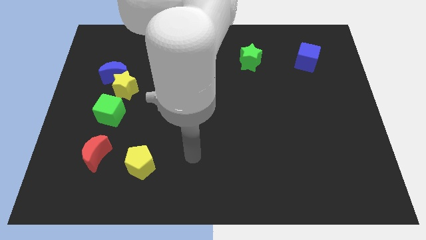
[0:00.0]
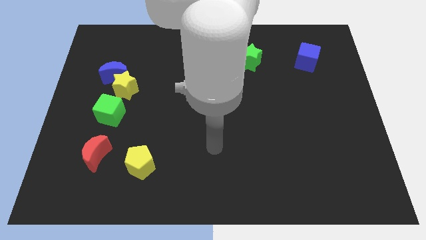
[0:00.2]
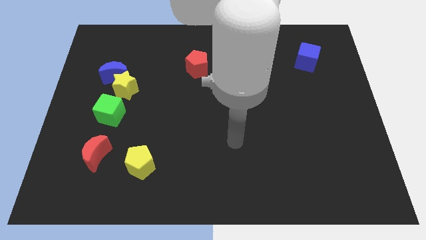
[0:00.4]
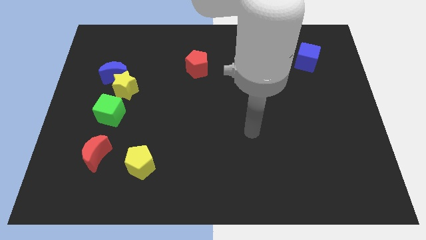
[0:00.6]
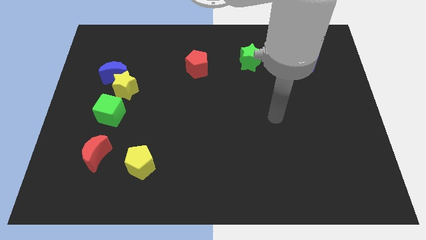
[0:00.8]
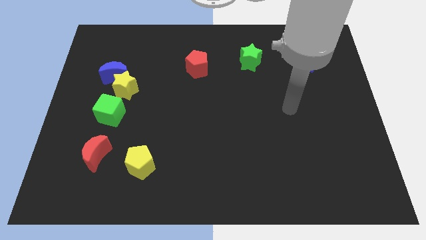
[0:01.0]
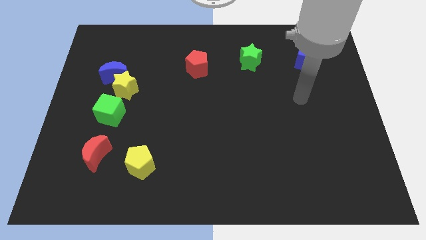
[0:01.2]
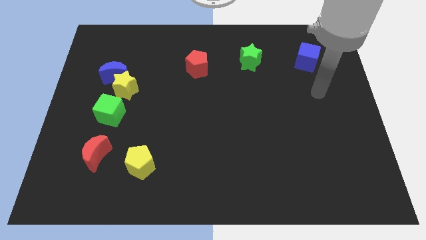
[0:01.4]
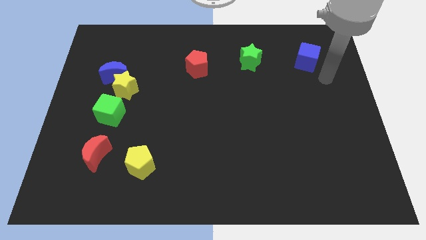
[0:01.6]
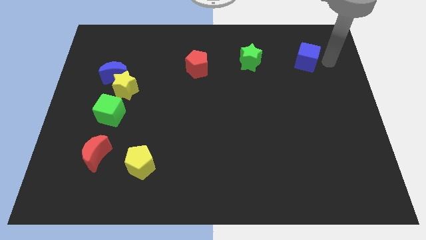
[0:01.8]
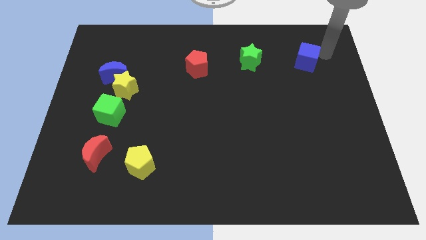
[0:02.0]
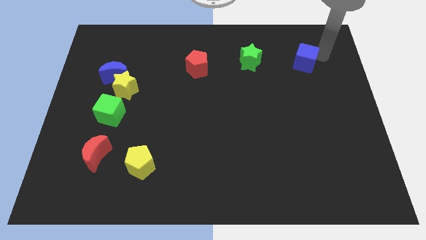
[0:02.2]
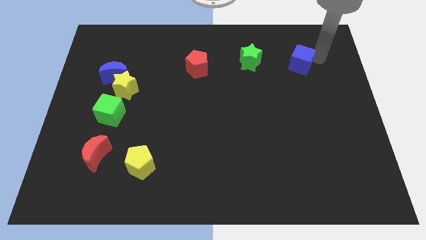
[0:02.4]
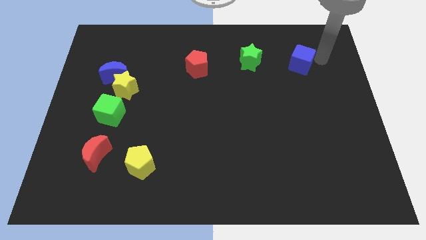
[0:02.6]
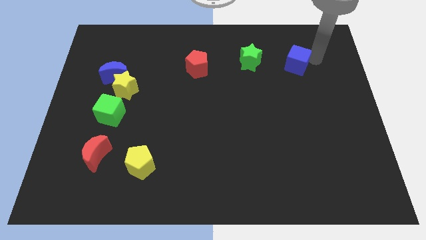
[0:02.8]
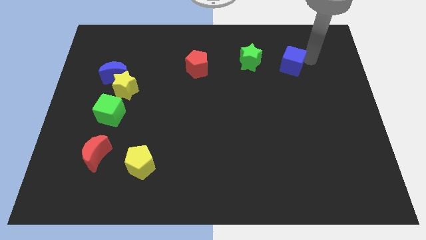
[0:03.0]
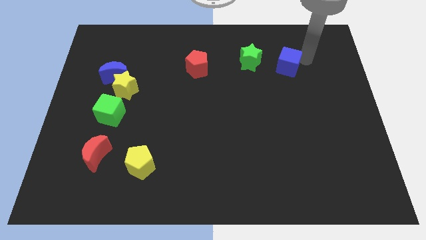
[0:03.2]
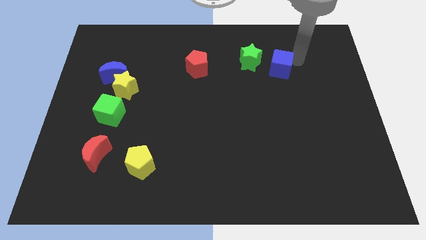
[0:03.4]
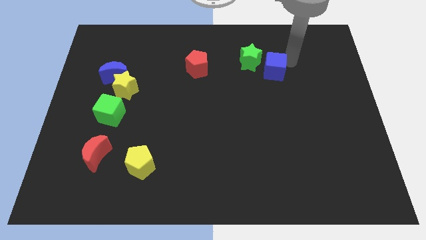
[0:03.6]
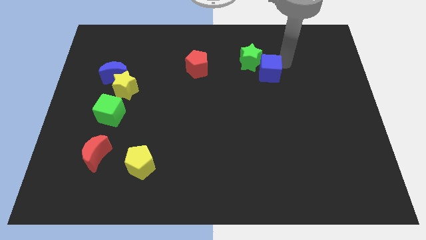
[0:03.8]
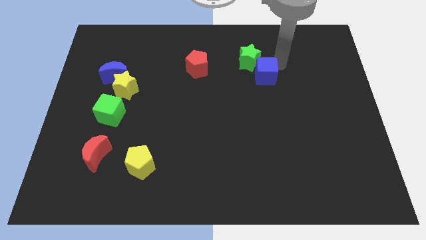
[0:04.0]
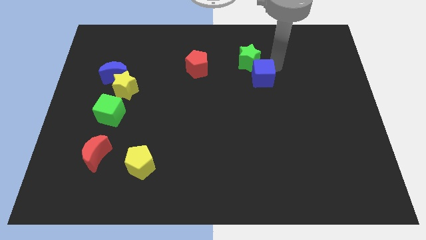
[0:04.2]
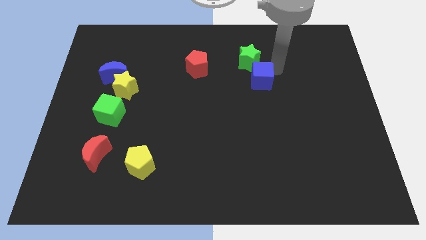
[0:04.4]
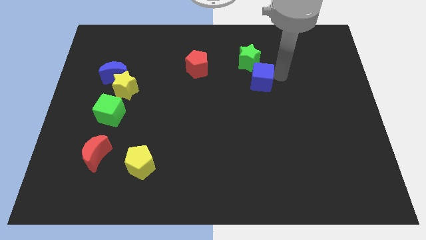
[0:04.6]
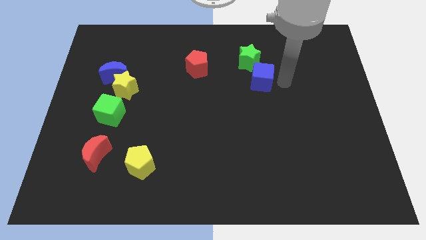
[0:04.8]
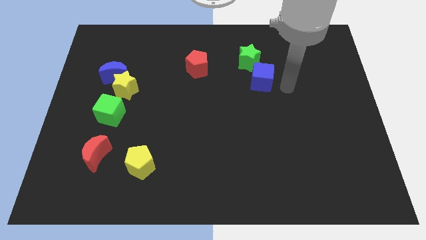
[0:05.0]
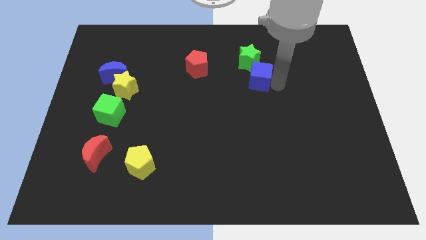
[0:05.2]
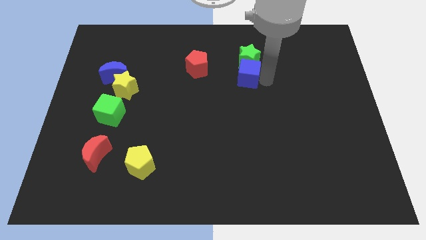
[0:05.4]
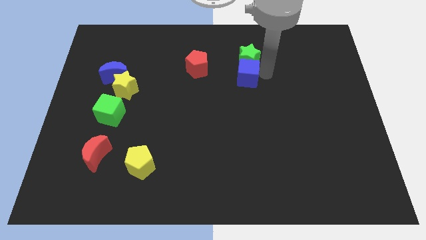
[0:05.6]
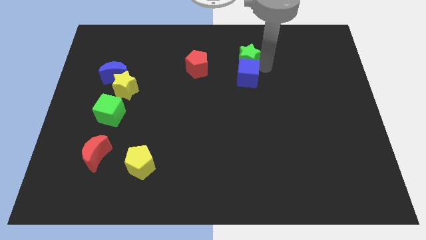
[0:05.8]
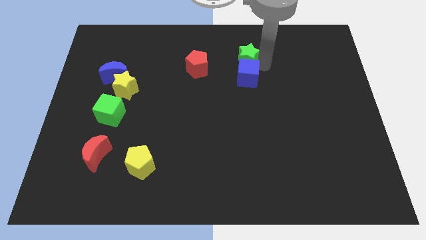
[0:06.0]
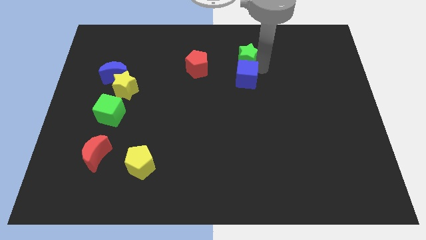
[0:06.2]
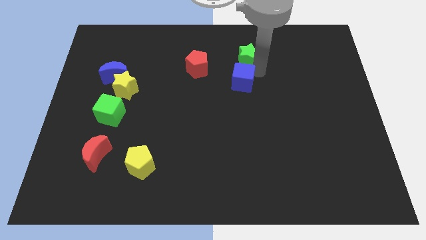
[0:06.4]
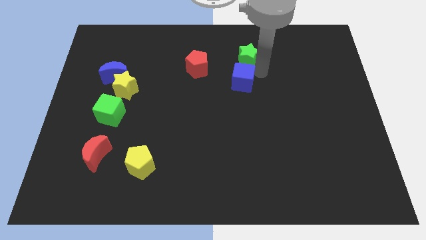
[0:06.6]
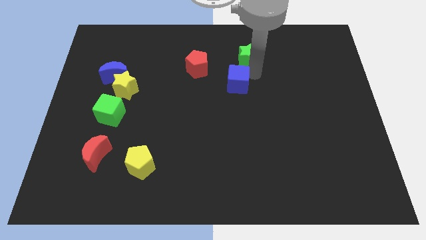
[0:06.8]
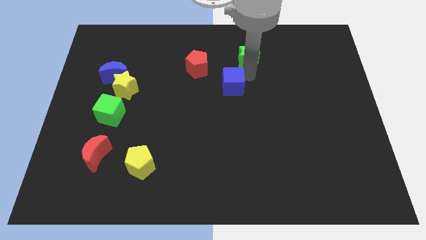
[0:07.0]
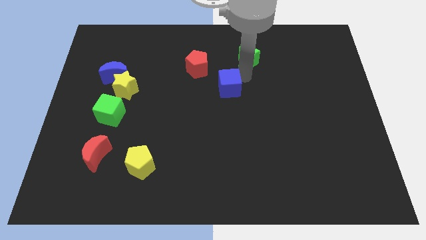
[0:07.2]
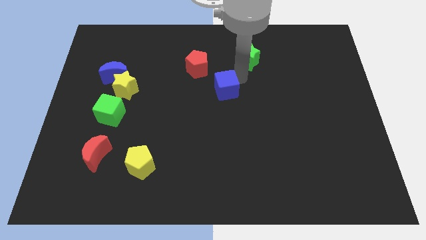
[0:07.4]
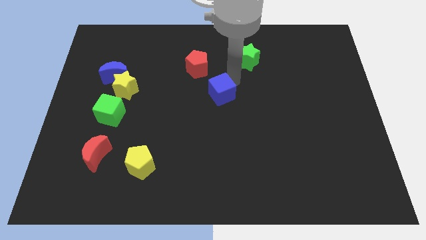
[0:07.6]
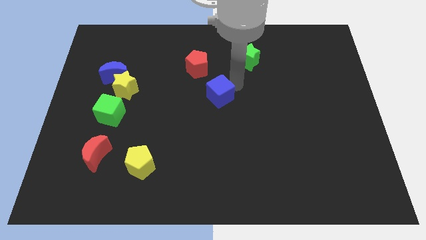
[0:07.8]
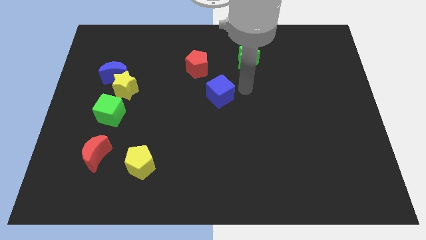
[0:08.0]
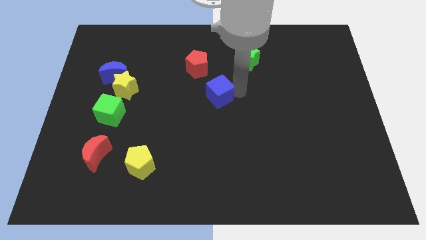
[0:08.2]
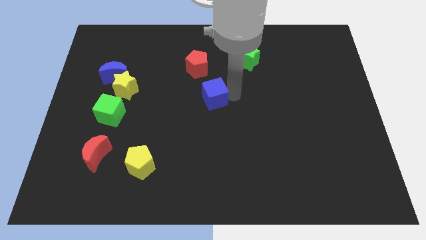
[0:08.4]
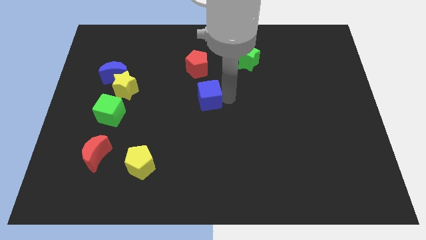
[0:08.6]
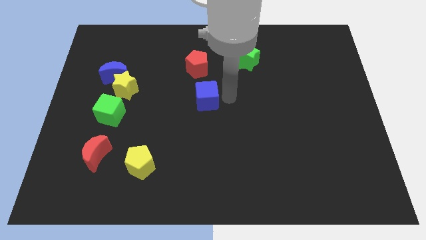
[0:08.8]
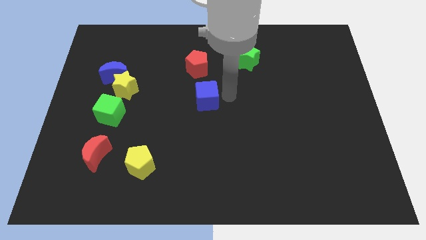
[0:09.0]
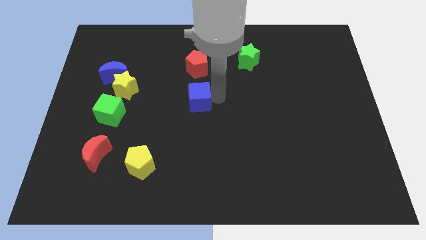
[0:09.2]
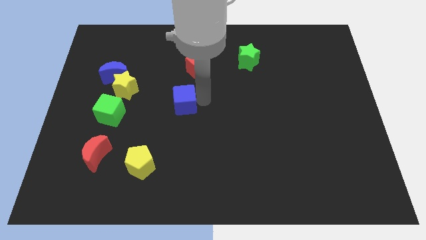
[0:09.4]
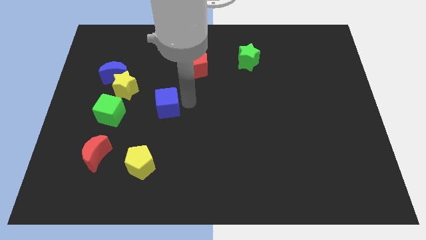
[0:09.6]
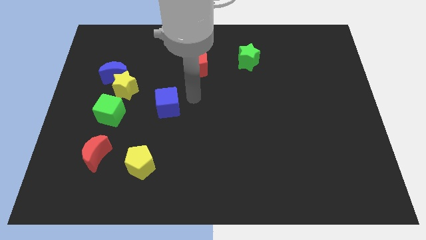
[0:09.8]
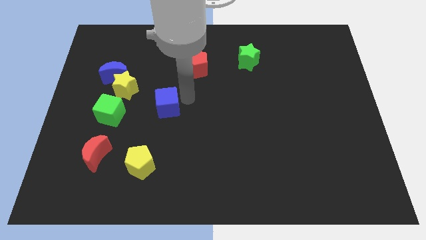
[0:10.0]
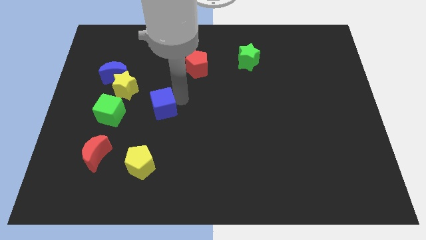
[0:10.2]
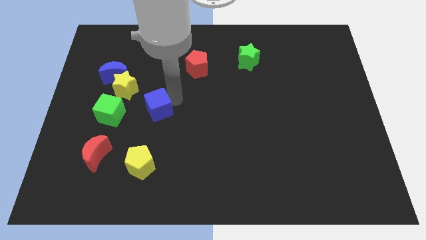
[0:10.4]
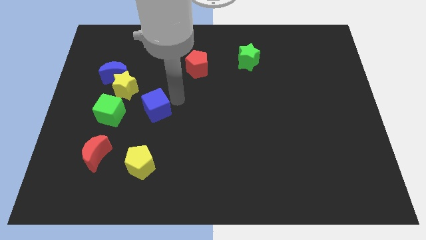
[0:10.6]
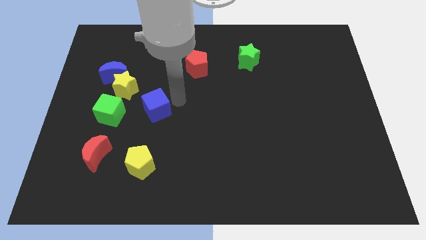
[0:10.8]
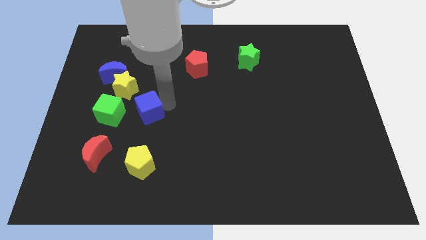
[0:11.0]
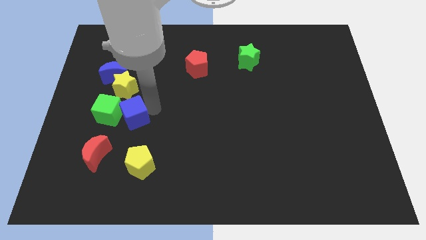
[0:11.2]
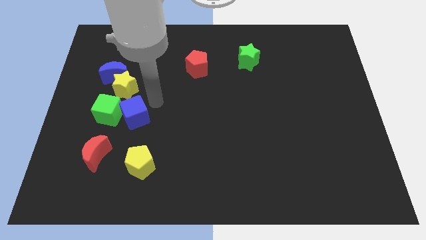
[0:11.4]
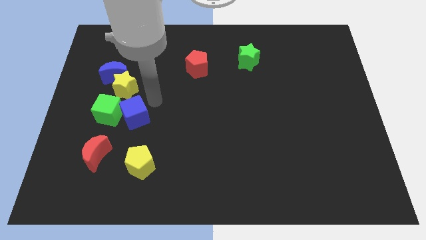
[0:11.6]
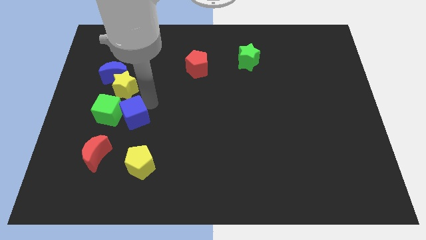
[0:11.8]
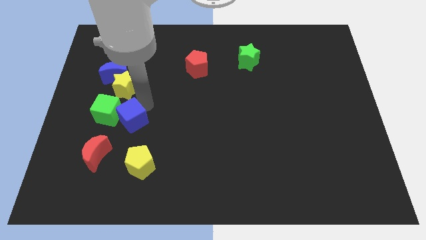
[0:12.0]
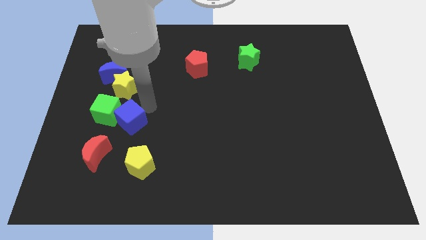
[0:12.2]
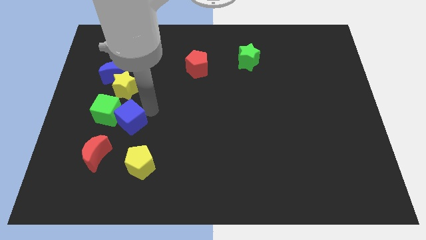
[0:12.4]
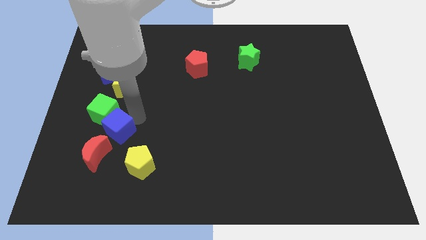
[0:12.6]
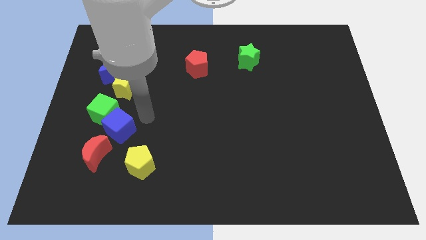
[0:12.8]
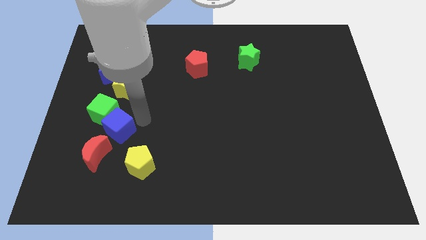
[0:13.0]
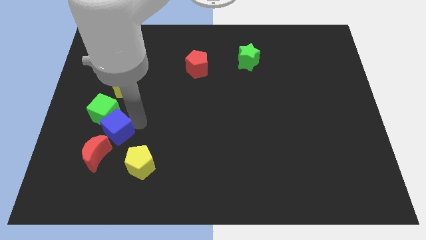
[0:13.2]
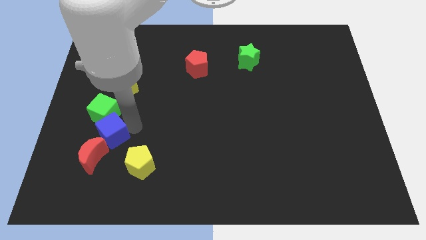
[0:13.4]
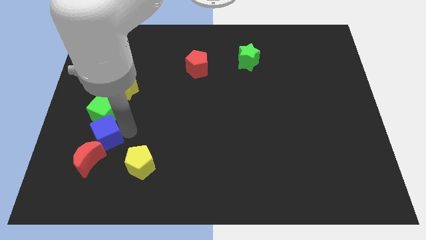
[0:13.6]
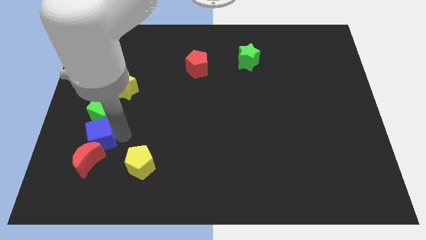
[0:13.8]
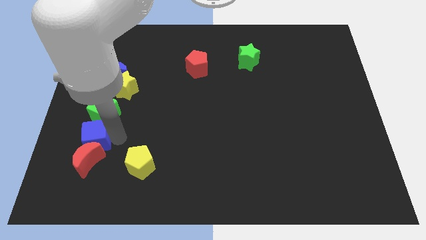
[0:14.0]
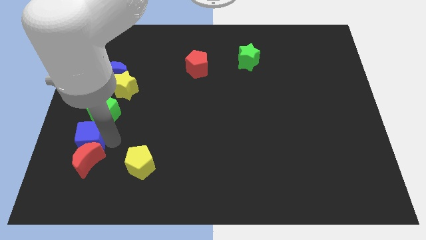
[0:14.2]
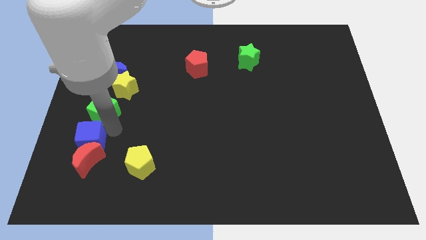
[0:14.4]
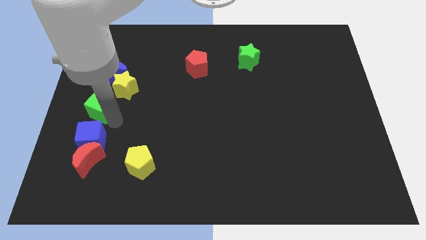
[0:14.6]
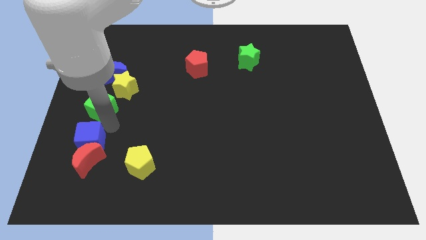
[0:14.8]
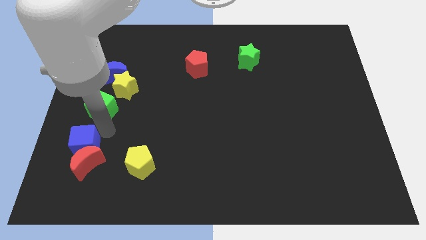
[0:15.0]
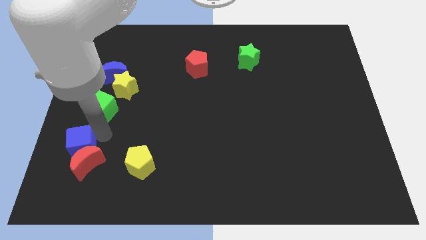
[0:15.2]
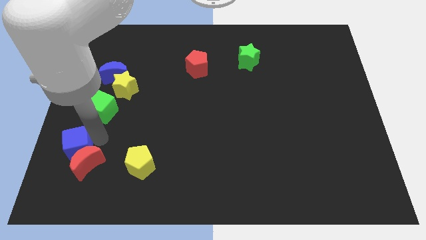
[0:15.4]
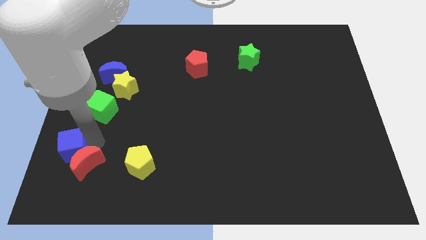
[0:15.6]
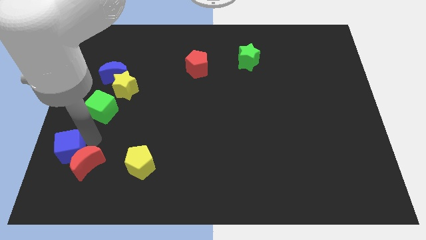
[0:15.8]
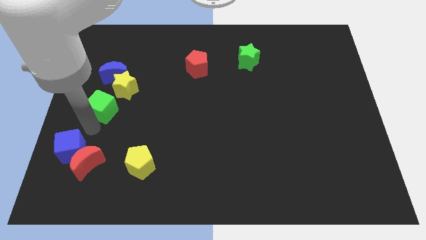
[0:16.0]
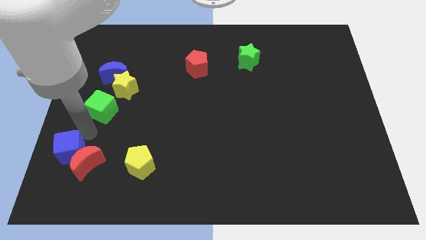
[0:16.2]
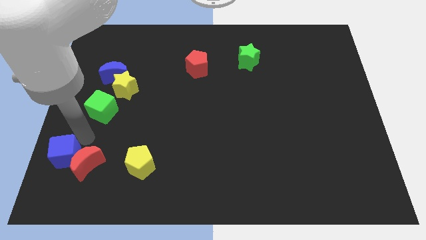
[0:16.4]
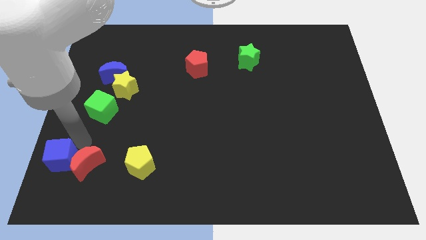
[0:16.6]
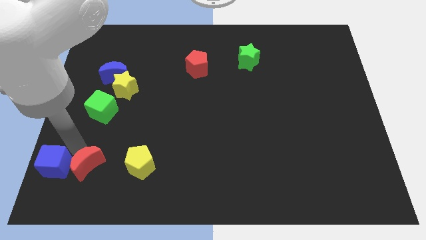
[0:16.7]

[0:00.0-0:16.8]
put the blue cube to the bottom left corner
